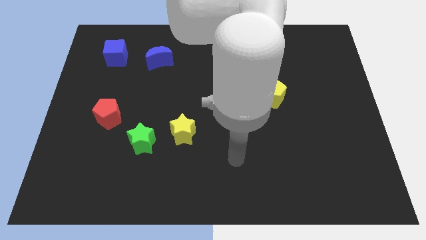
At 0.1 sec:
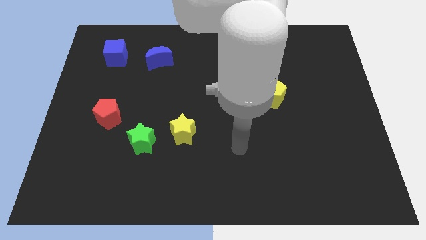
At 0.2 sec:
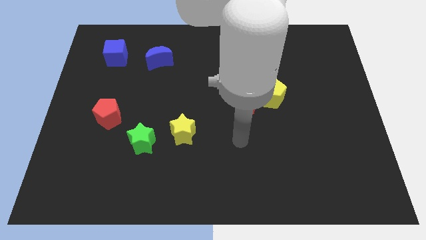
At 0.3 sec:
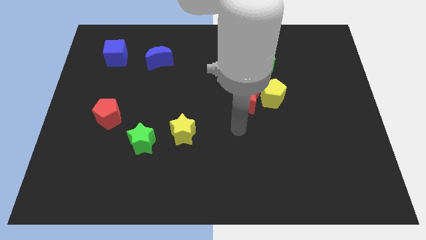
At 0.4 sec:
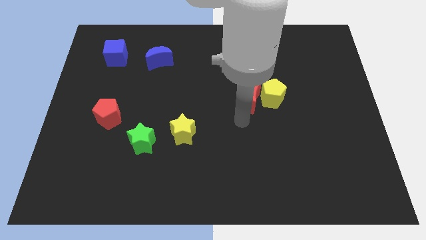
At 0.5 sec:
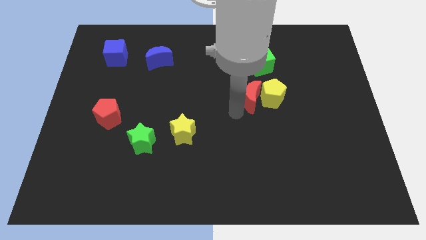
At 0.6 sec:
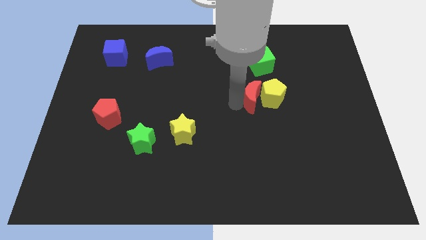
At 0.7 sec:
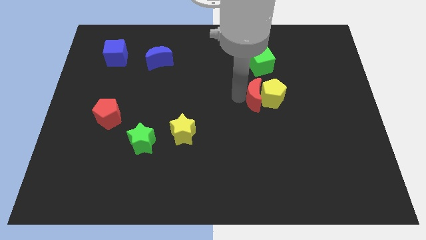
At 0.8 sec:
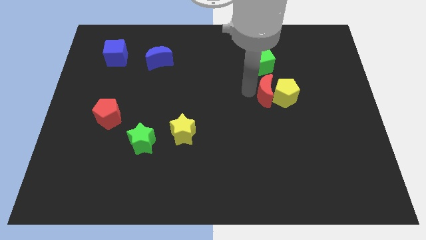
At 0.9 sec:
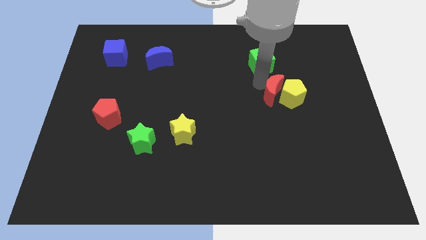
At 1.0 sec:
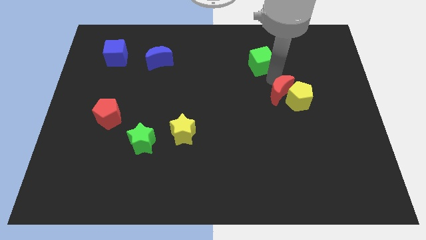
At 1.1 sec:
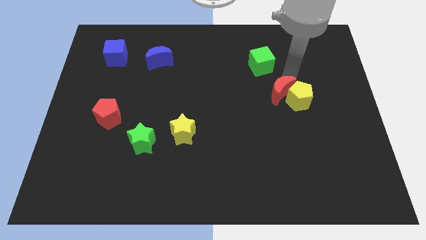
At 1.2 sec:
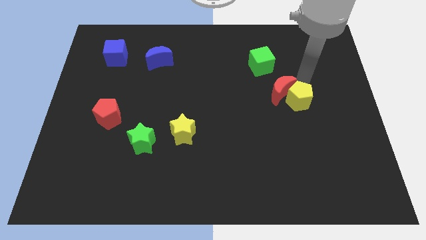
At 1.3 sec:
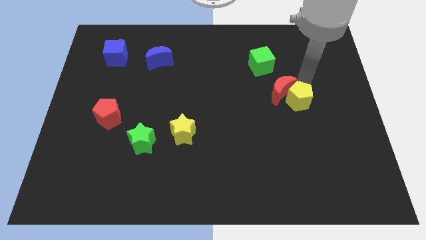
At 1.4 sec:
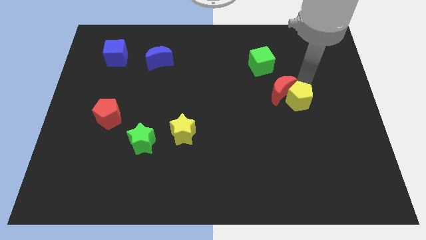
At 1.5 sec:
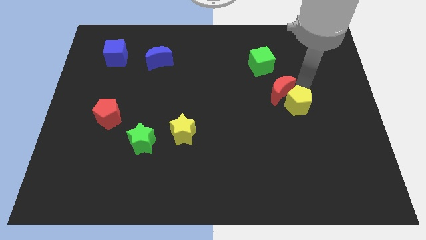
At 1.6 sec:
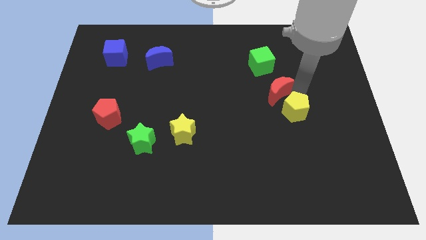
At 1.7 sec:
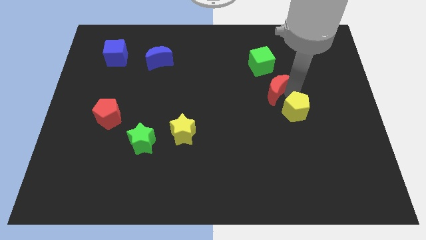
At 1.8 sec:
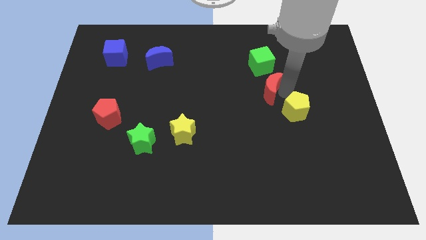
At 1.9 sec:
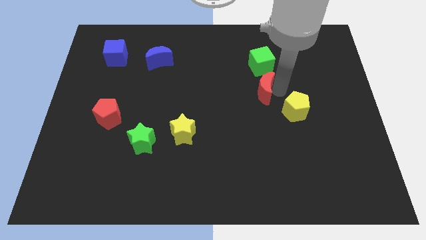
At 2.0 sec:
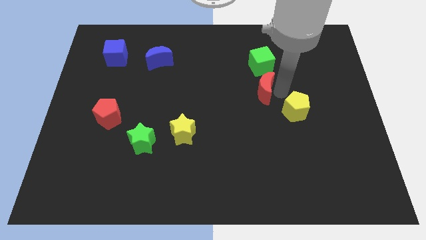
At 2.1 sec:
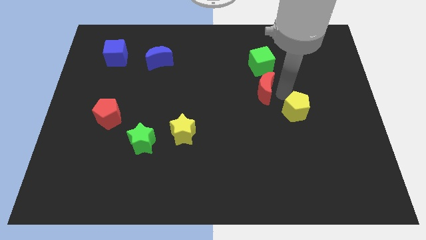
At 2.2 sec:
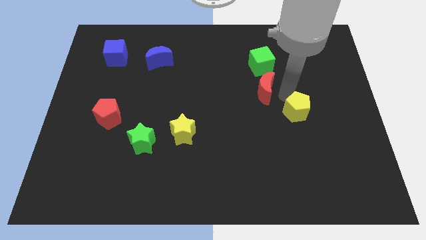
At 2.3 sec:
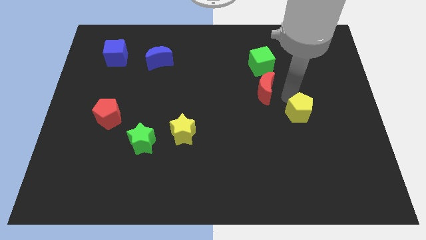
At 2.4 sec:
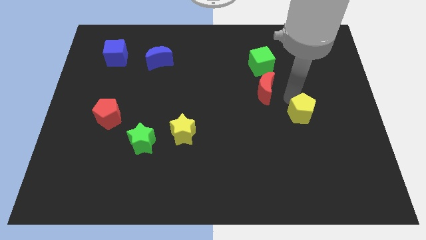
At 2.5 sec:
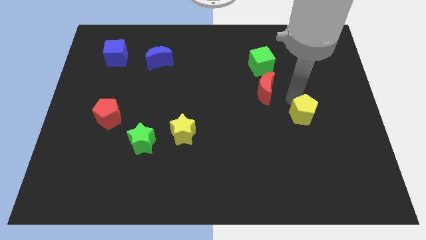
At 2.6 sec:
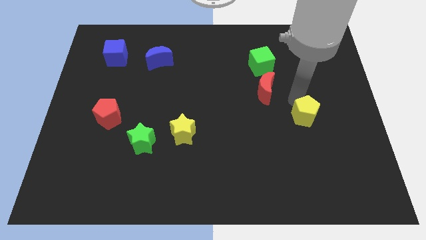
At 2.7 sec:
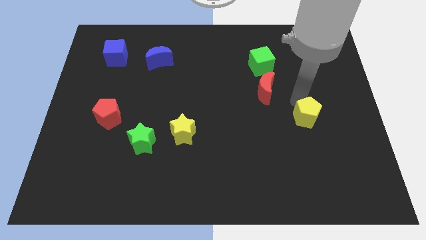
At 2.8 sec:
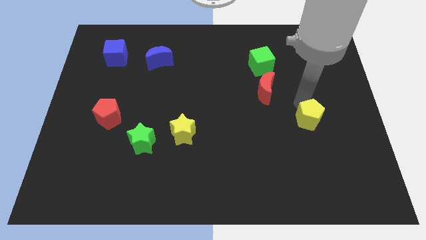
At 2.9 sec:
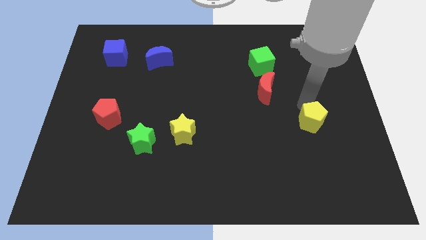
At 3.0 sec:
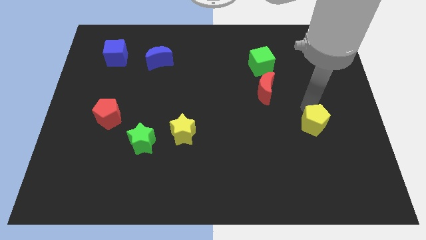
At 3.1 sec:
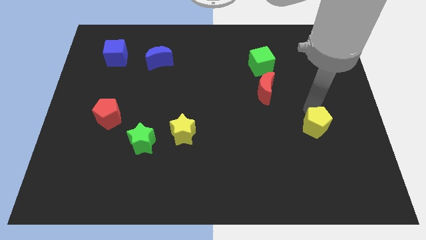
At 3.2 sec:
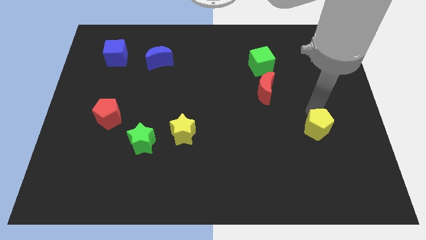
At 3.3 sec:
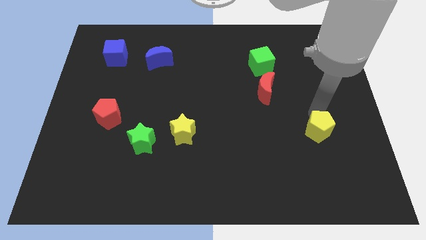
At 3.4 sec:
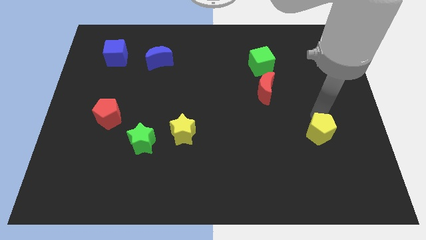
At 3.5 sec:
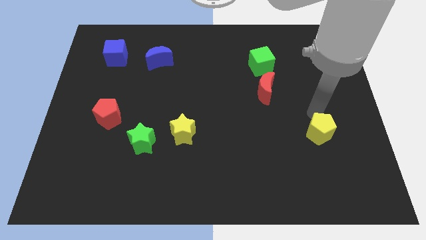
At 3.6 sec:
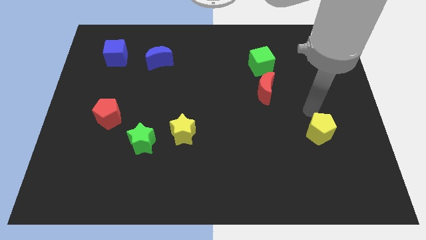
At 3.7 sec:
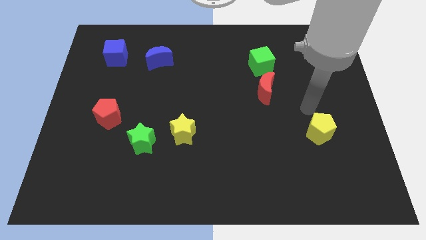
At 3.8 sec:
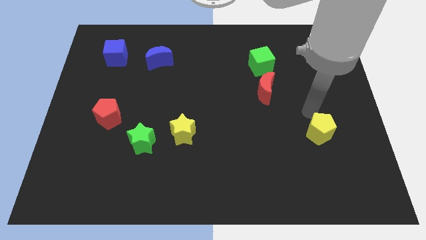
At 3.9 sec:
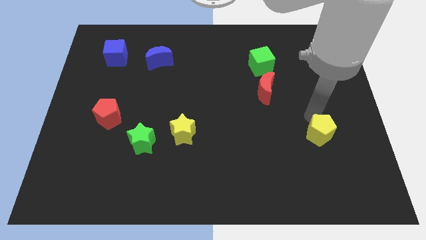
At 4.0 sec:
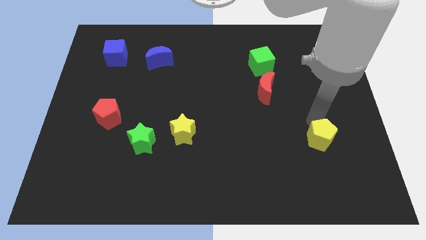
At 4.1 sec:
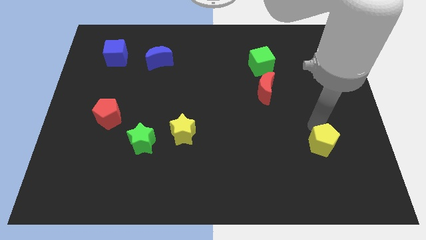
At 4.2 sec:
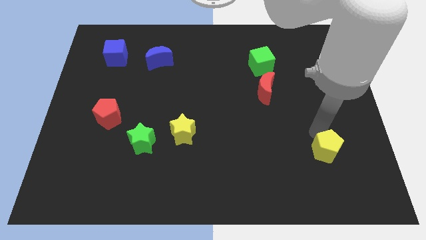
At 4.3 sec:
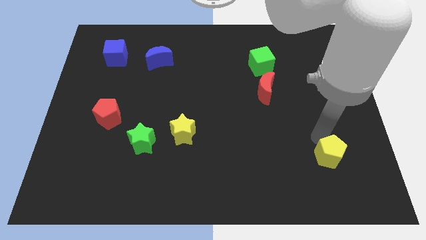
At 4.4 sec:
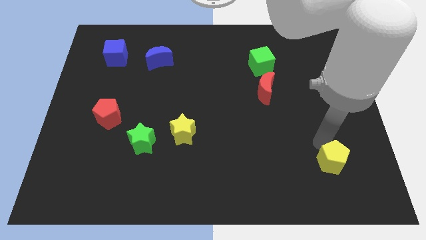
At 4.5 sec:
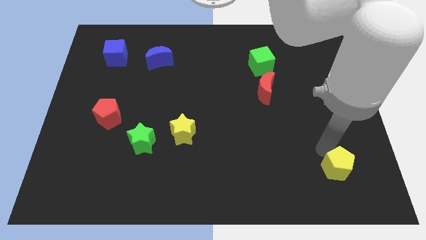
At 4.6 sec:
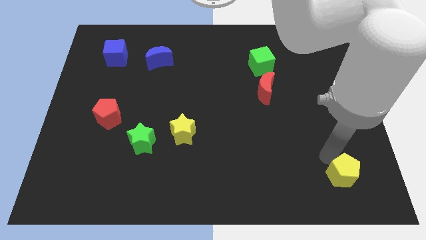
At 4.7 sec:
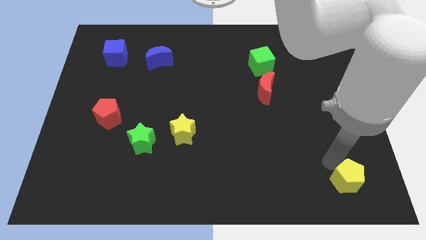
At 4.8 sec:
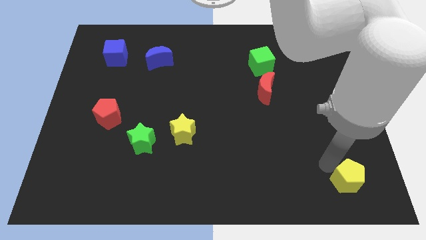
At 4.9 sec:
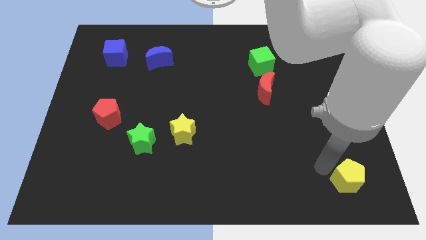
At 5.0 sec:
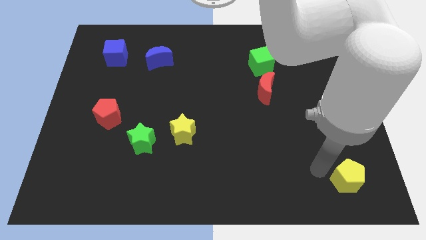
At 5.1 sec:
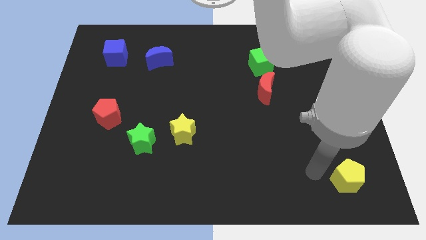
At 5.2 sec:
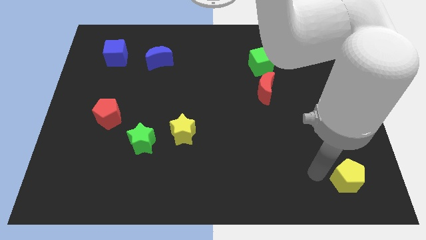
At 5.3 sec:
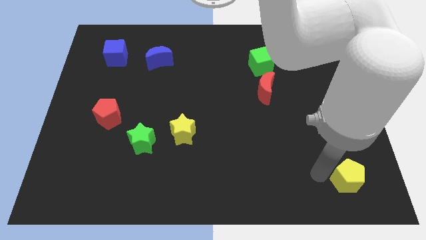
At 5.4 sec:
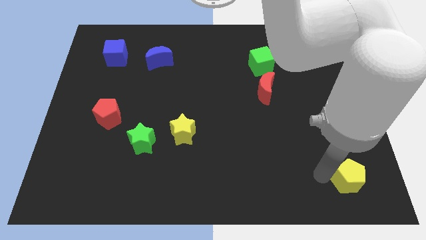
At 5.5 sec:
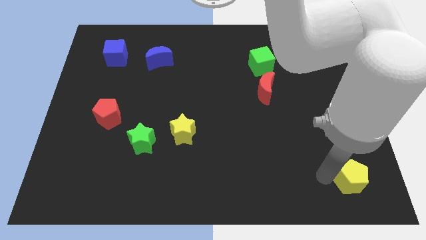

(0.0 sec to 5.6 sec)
slide the yellow pentagon to the bottom right of the board

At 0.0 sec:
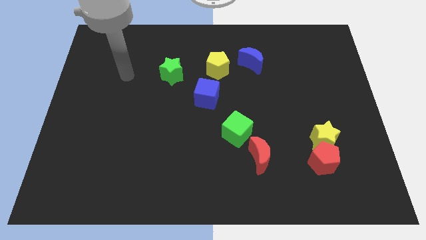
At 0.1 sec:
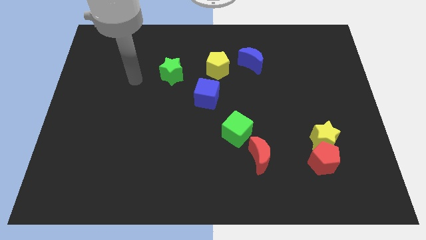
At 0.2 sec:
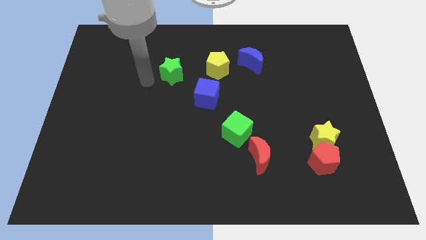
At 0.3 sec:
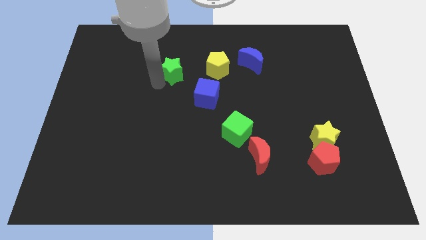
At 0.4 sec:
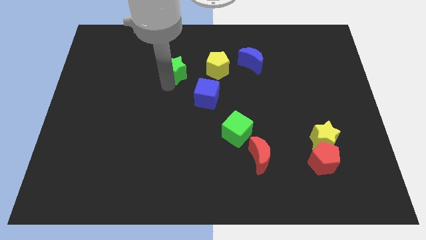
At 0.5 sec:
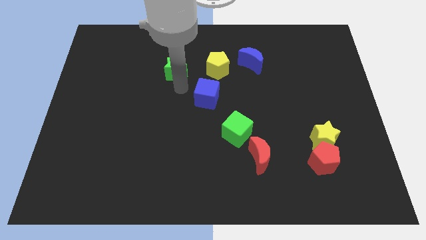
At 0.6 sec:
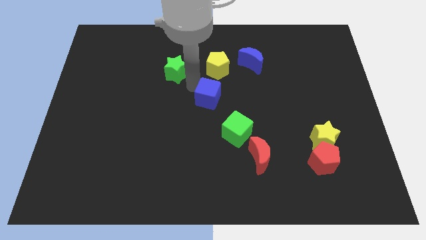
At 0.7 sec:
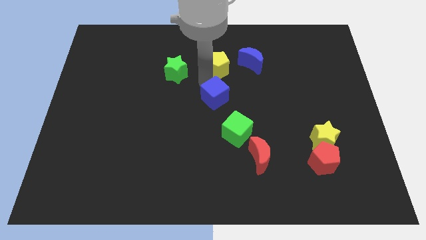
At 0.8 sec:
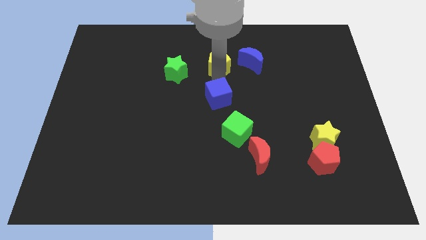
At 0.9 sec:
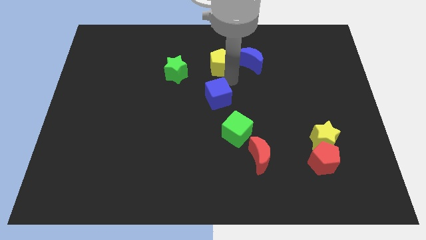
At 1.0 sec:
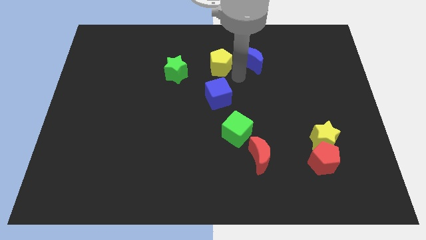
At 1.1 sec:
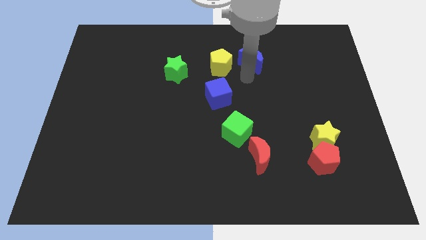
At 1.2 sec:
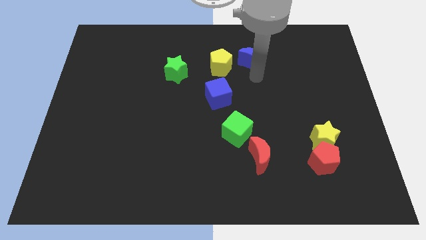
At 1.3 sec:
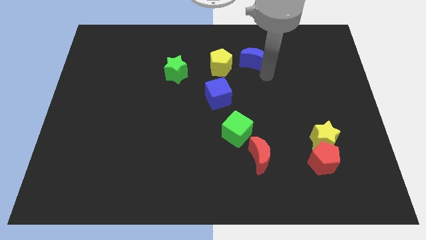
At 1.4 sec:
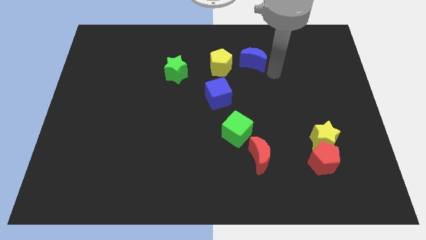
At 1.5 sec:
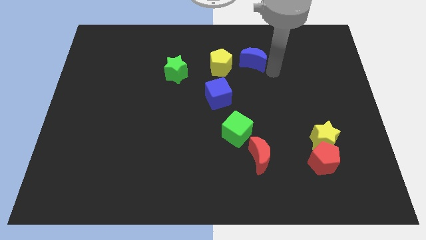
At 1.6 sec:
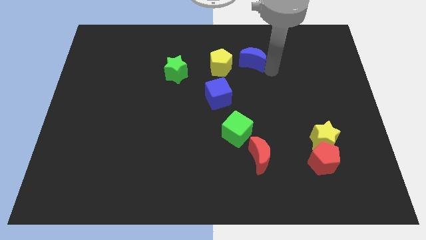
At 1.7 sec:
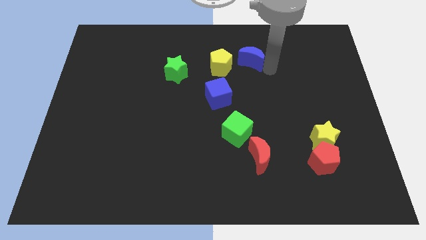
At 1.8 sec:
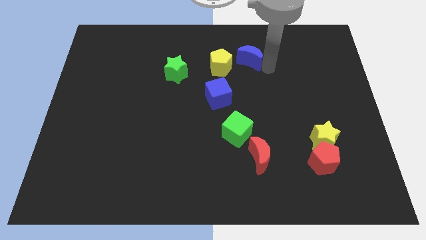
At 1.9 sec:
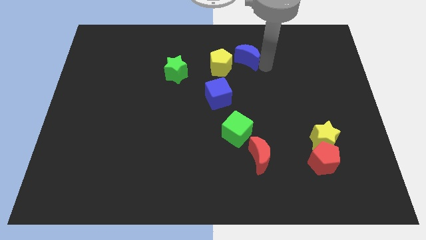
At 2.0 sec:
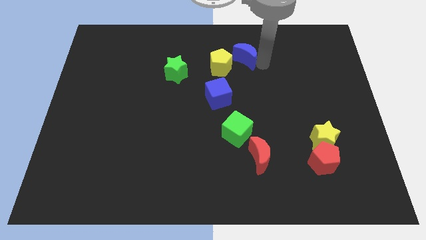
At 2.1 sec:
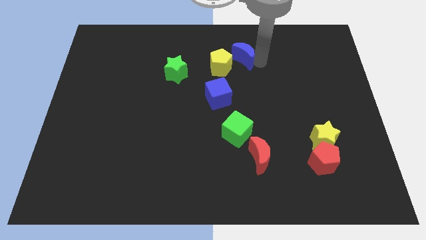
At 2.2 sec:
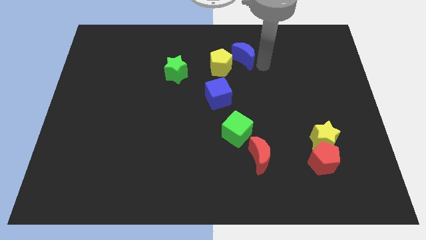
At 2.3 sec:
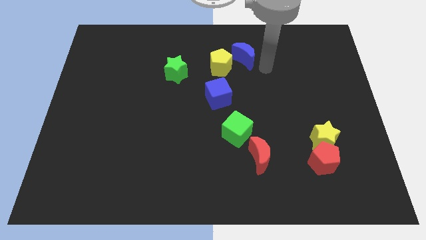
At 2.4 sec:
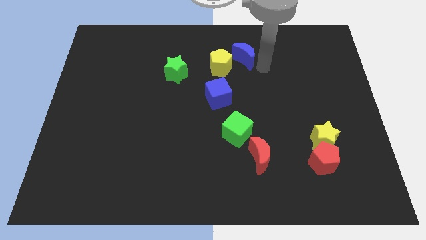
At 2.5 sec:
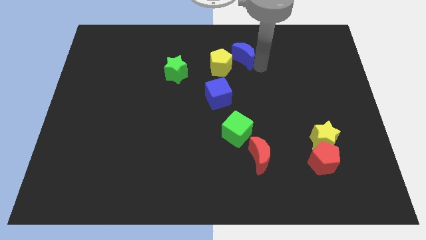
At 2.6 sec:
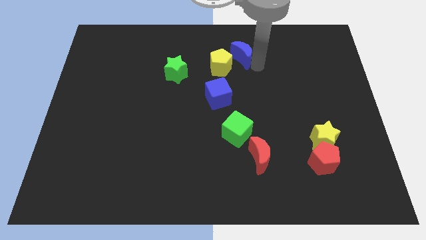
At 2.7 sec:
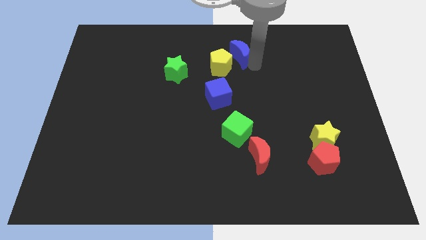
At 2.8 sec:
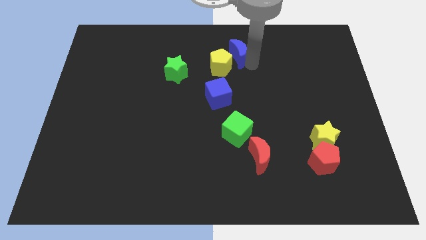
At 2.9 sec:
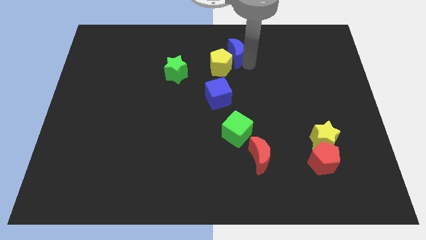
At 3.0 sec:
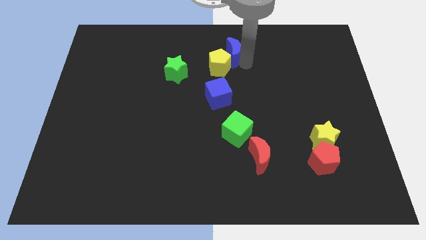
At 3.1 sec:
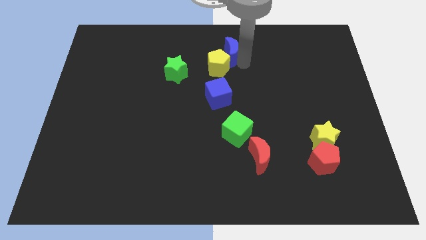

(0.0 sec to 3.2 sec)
push the blue moon to the towards your base
